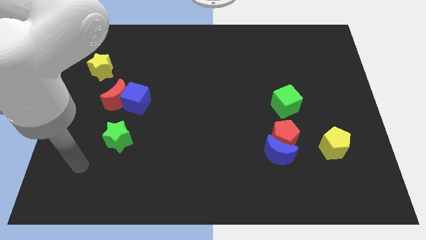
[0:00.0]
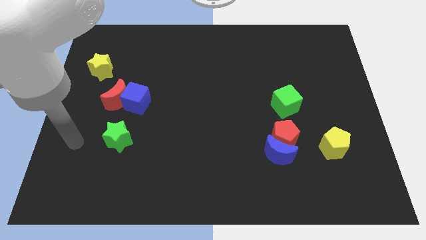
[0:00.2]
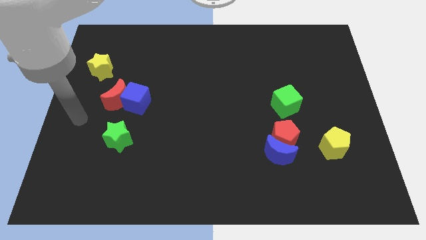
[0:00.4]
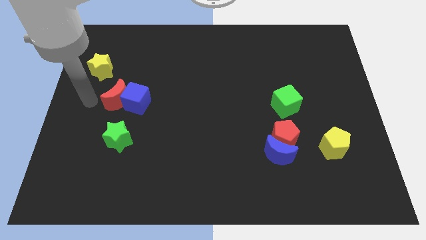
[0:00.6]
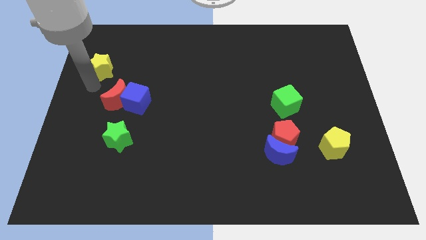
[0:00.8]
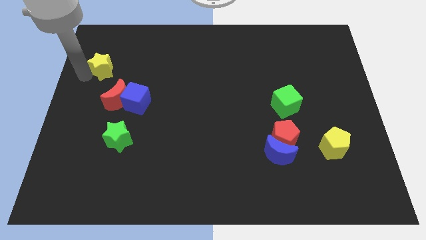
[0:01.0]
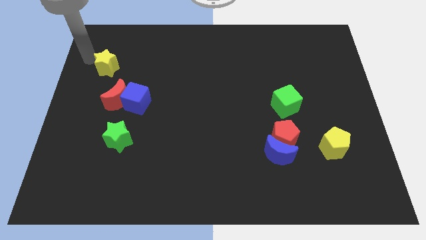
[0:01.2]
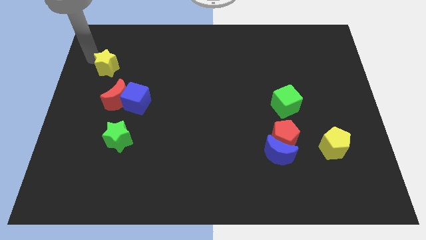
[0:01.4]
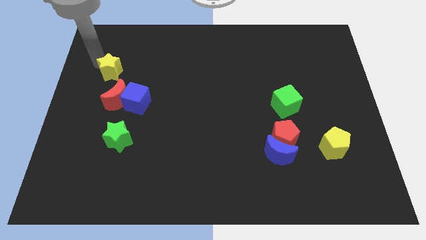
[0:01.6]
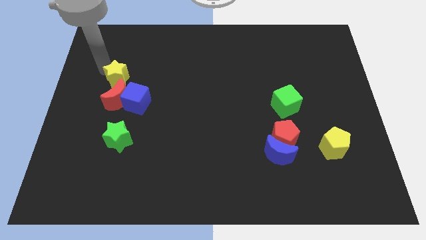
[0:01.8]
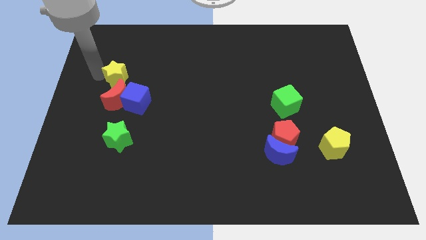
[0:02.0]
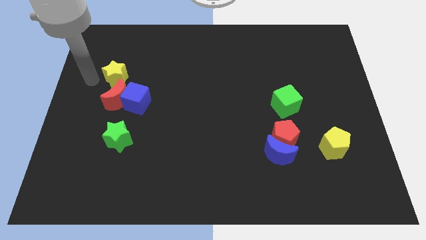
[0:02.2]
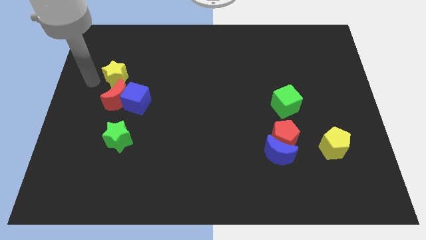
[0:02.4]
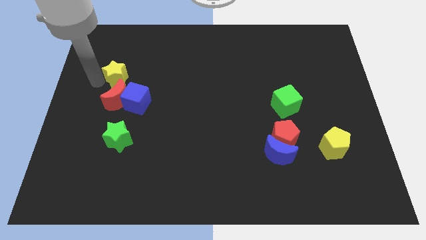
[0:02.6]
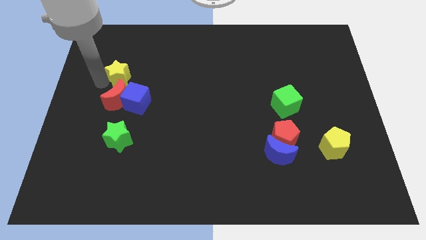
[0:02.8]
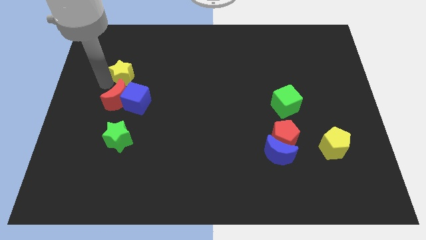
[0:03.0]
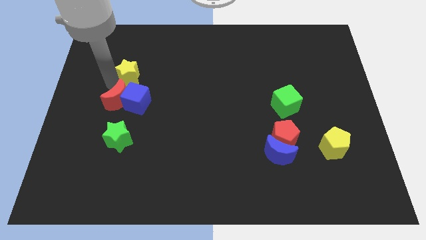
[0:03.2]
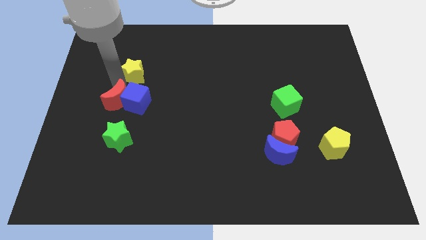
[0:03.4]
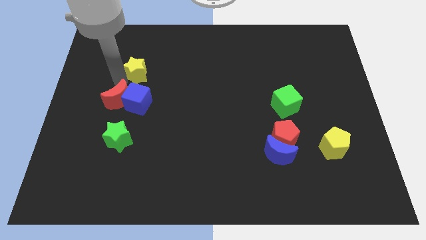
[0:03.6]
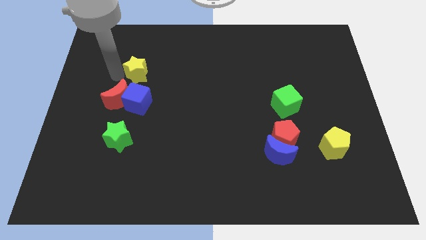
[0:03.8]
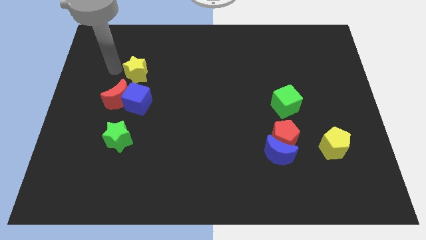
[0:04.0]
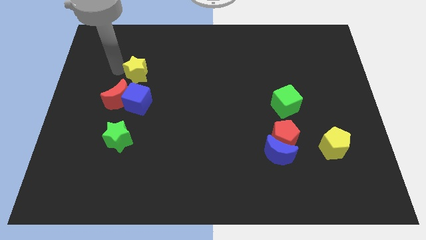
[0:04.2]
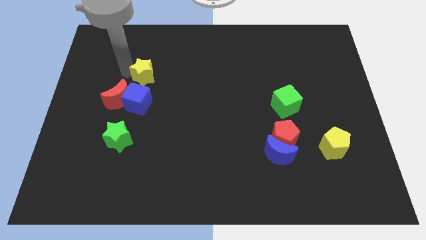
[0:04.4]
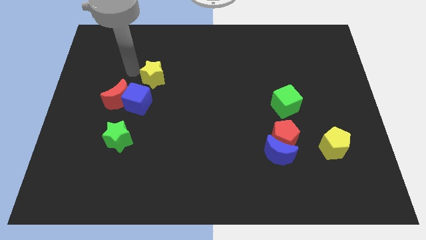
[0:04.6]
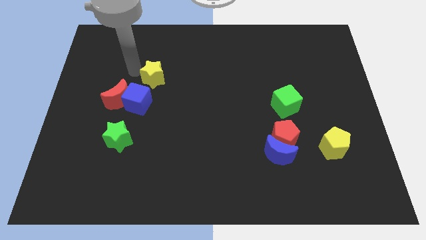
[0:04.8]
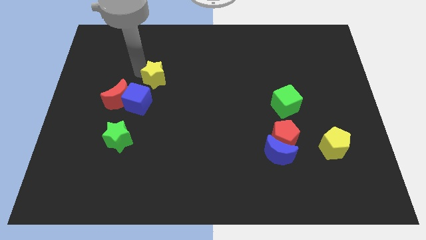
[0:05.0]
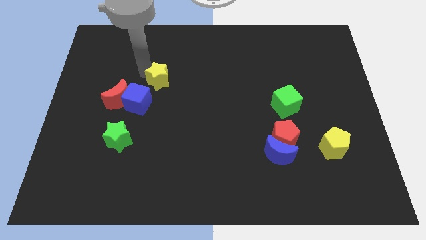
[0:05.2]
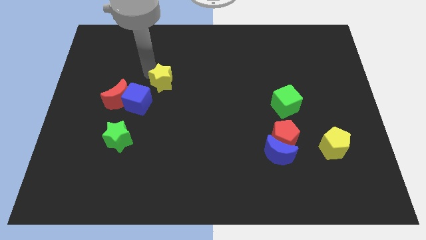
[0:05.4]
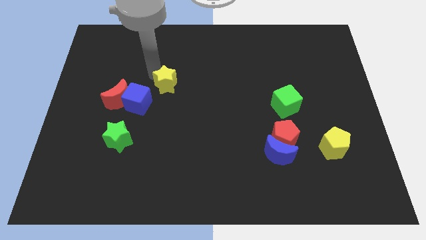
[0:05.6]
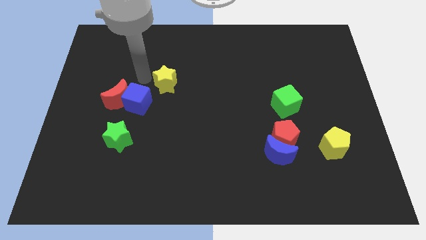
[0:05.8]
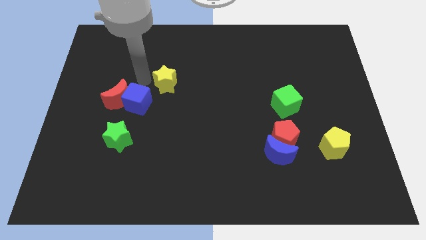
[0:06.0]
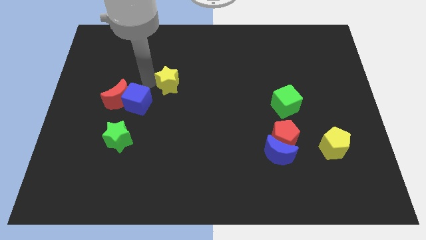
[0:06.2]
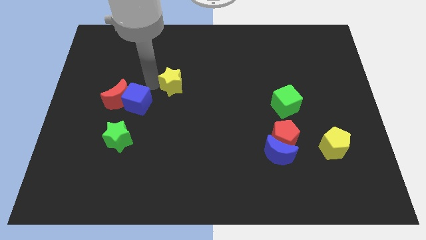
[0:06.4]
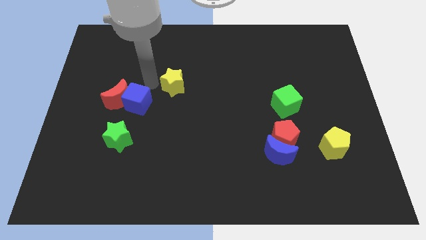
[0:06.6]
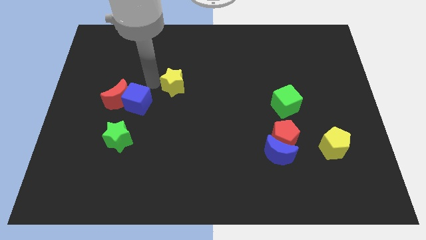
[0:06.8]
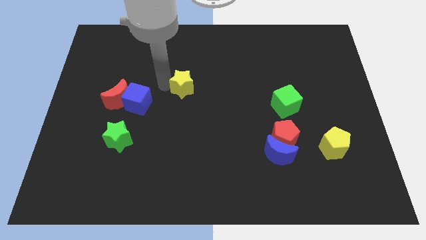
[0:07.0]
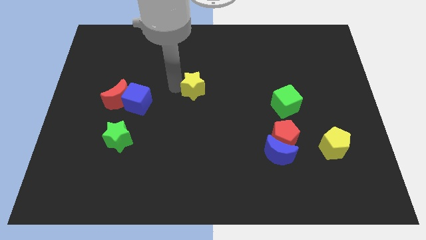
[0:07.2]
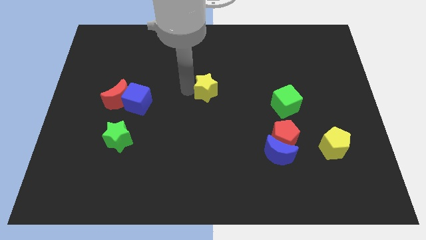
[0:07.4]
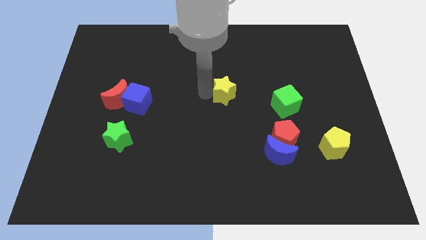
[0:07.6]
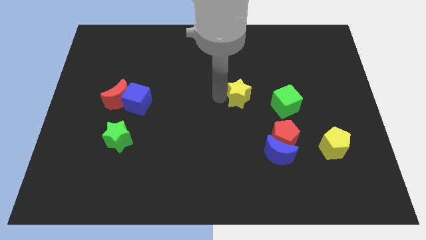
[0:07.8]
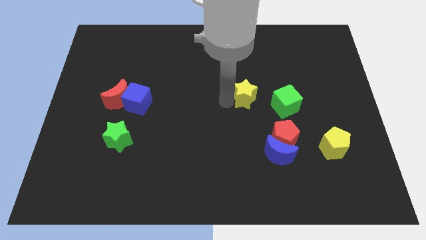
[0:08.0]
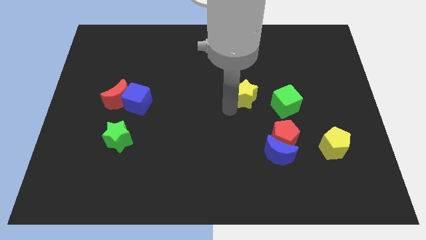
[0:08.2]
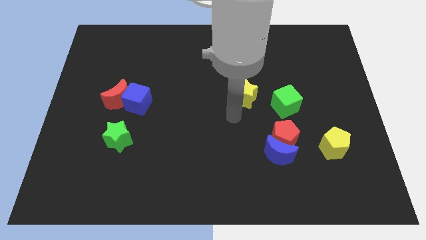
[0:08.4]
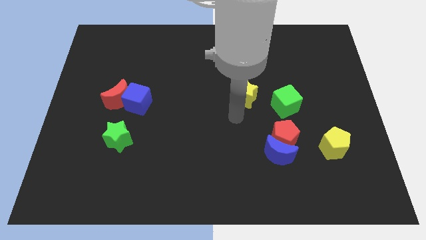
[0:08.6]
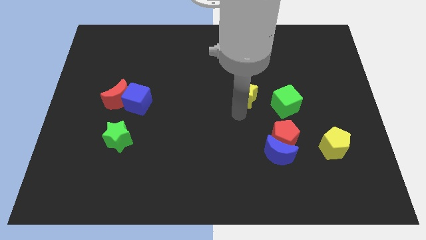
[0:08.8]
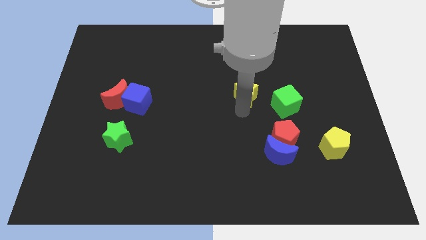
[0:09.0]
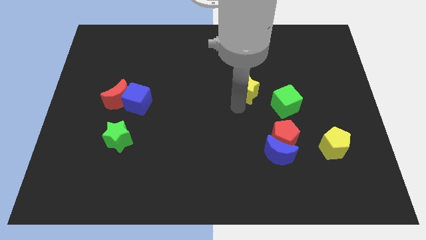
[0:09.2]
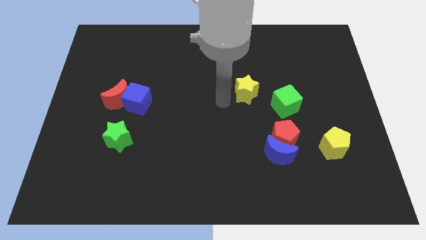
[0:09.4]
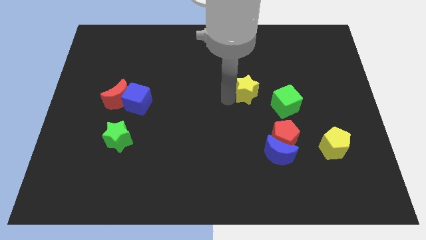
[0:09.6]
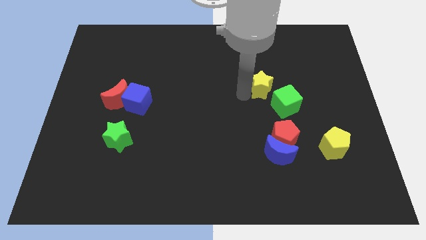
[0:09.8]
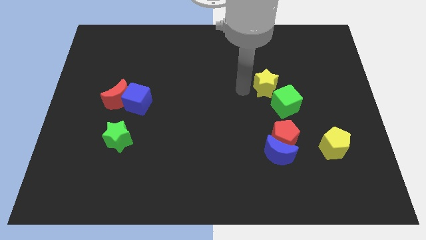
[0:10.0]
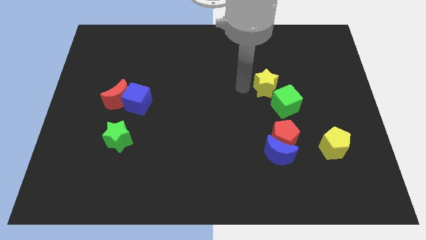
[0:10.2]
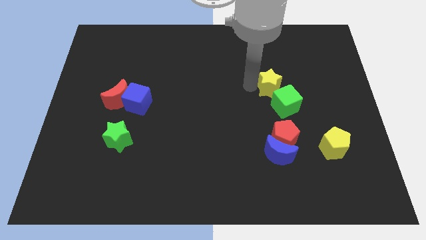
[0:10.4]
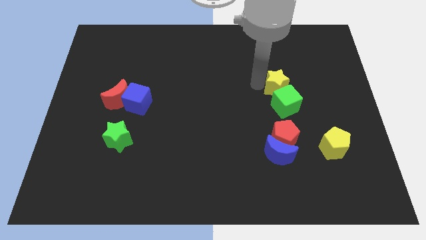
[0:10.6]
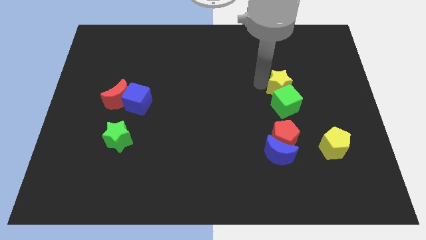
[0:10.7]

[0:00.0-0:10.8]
push the yellow star diagonally up and to the right of the green cube
